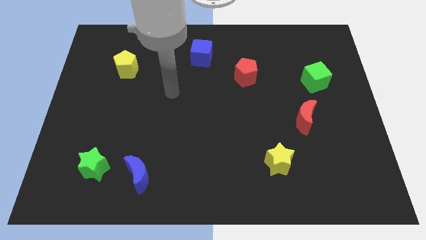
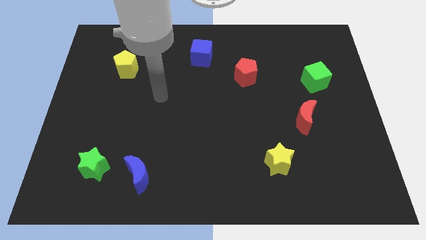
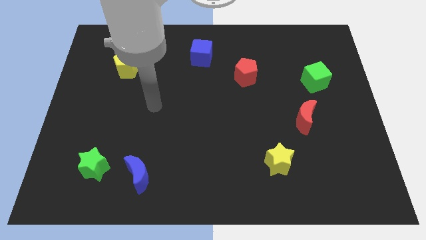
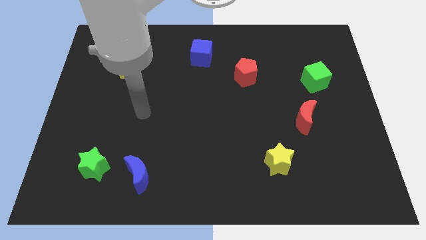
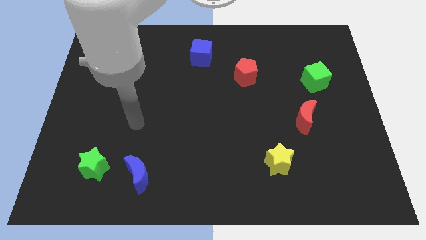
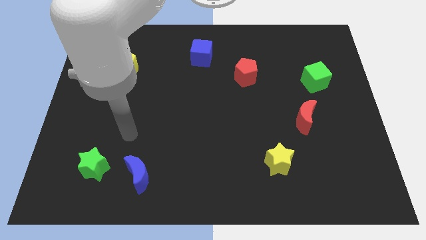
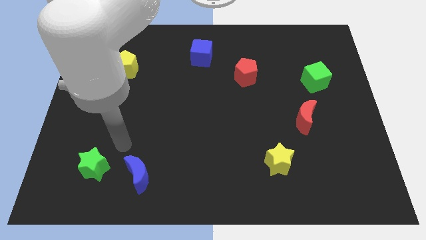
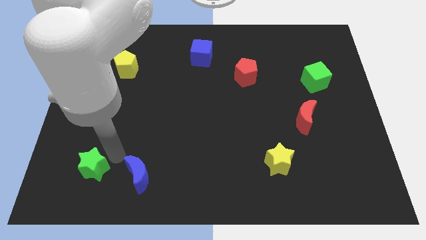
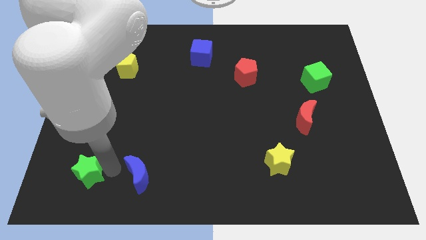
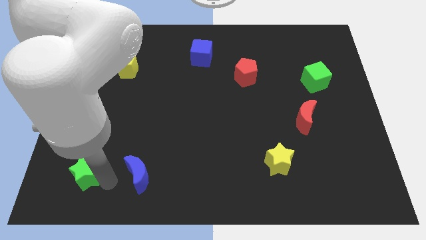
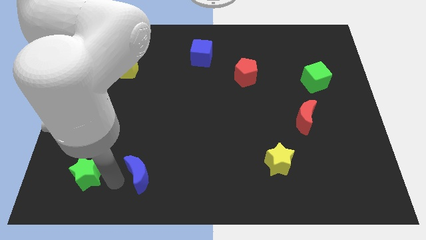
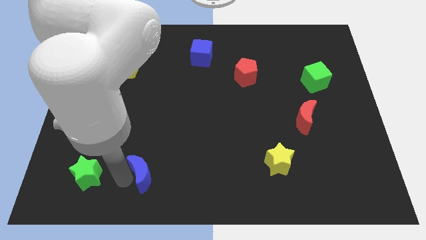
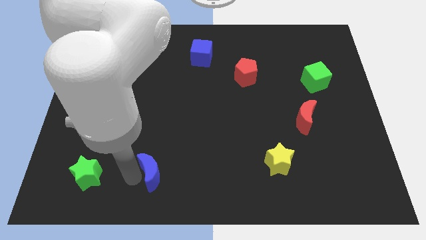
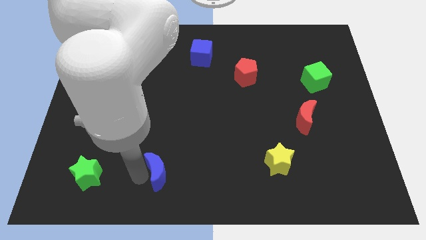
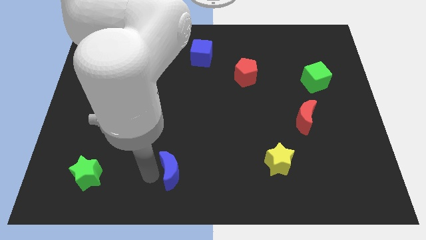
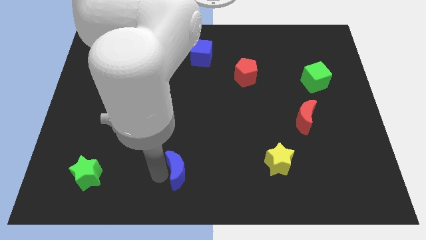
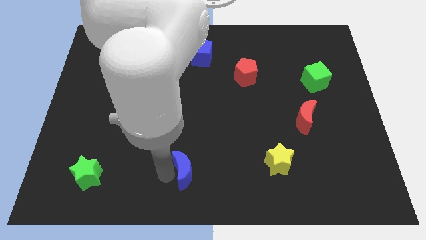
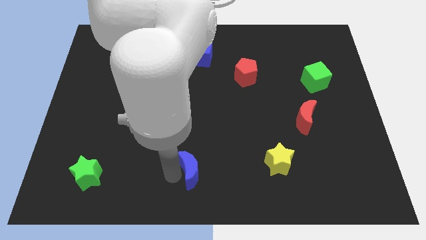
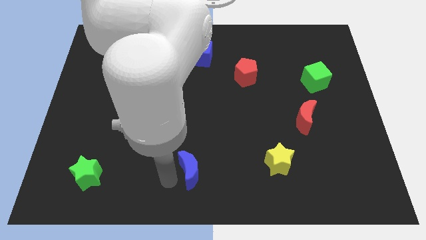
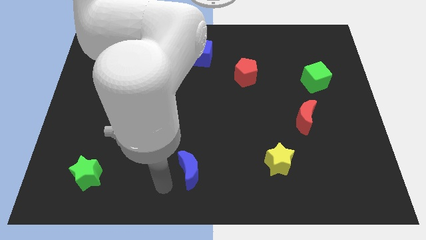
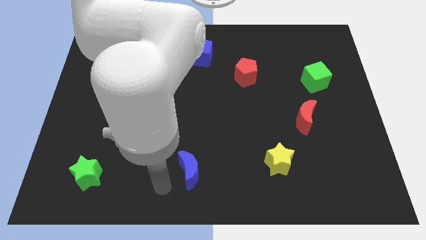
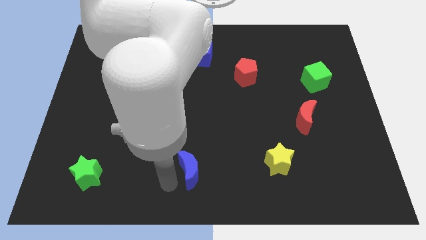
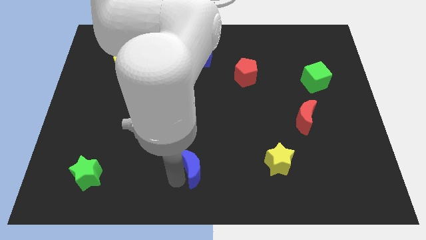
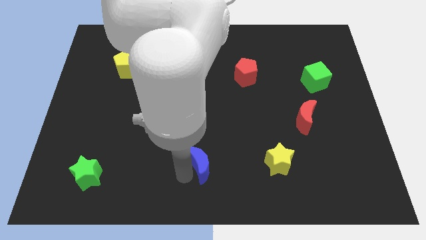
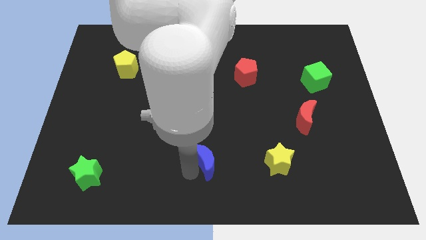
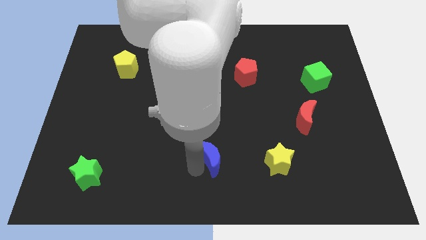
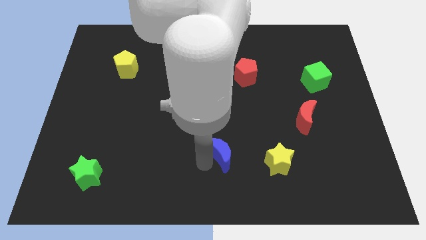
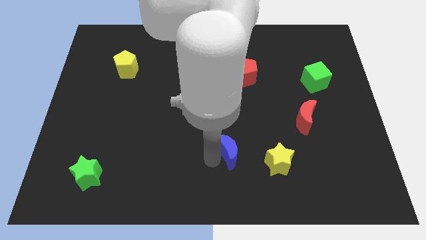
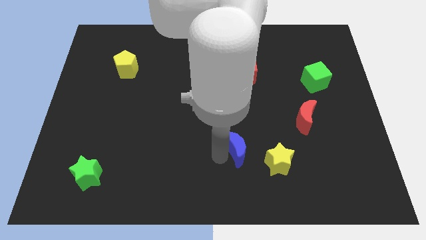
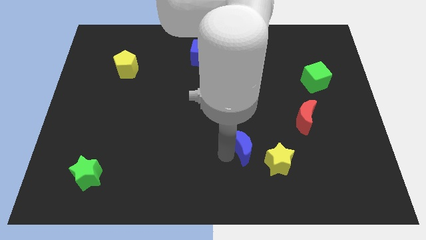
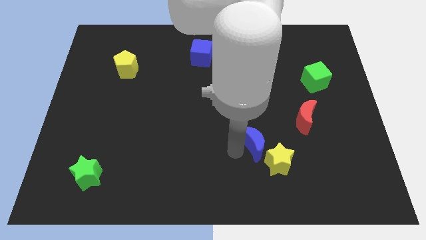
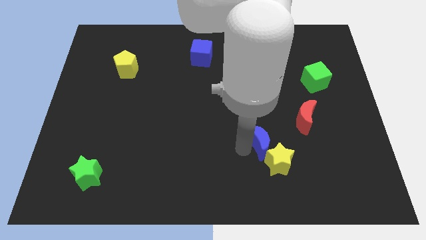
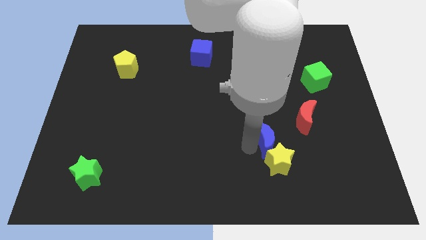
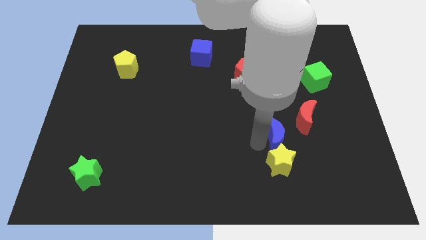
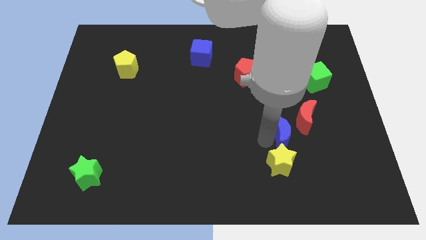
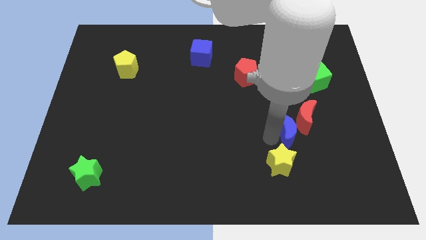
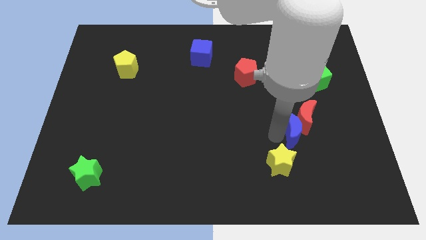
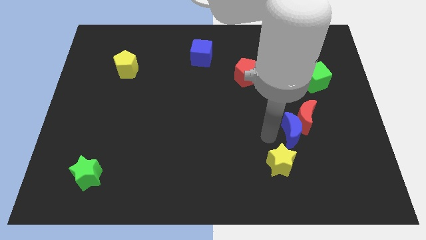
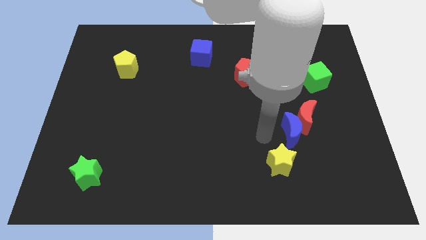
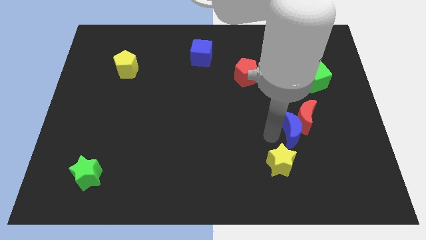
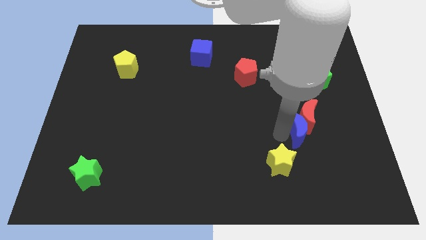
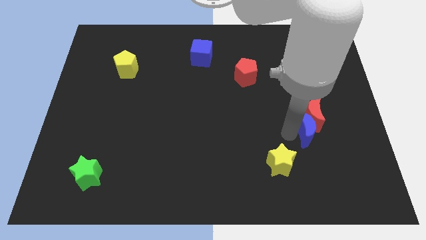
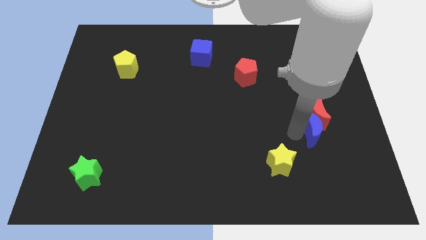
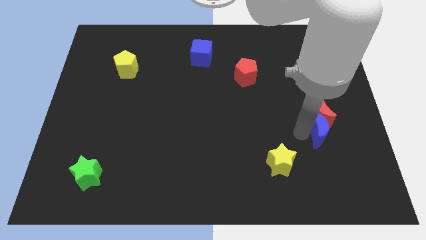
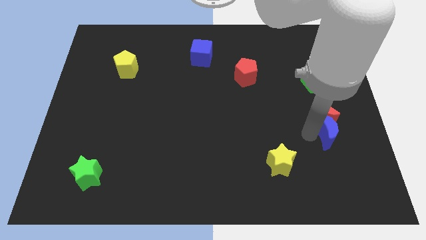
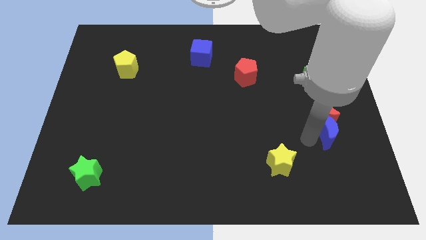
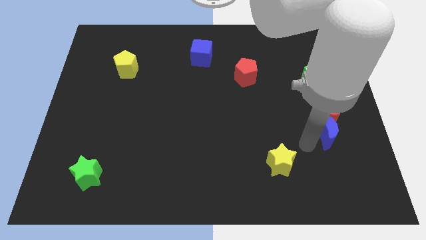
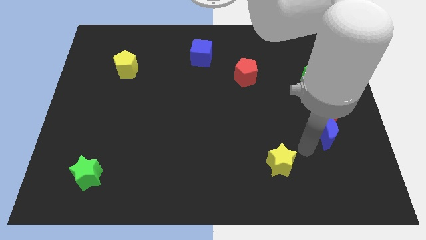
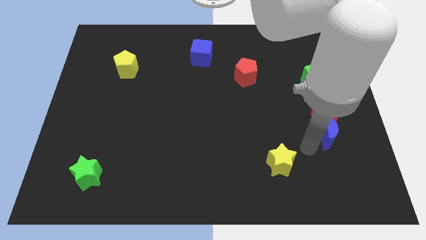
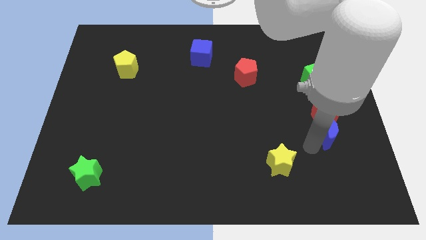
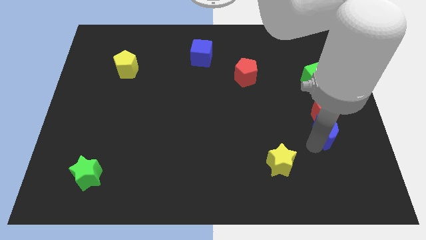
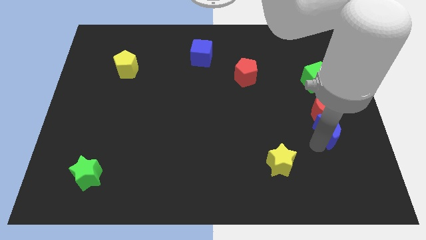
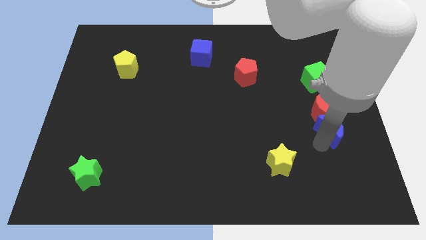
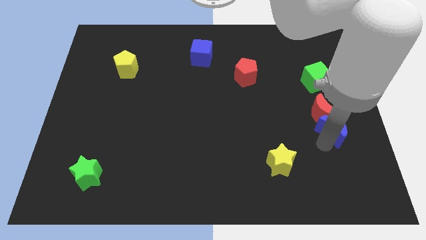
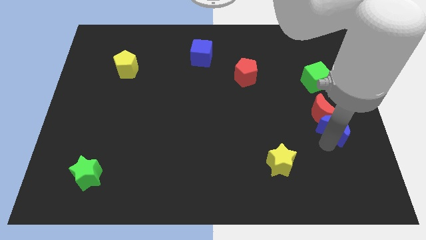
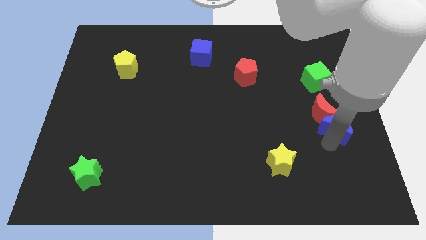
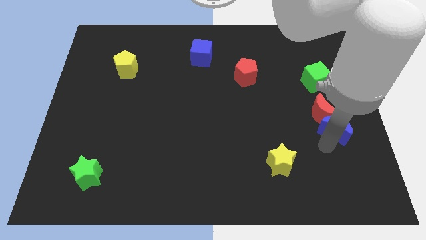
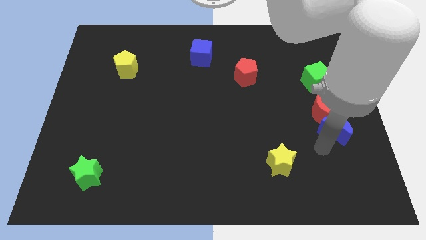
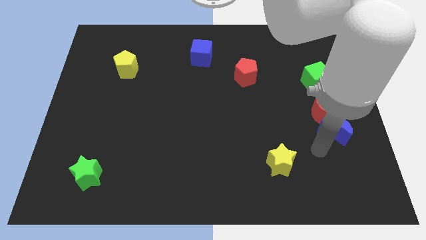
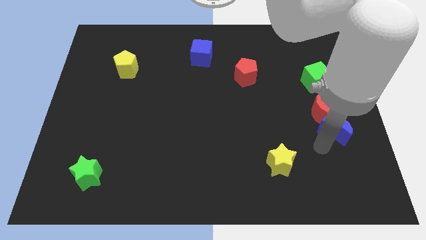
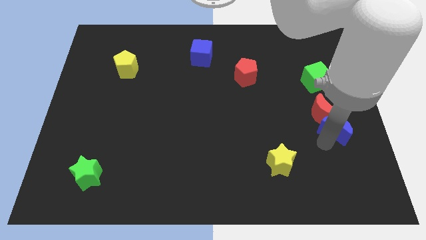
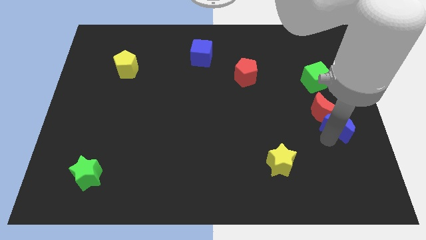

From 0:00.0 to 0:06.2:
push the blue moon to the right side
